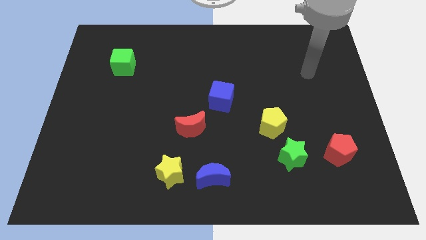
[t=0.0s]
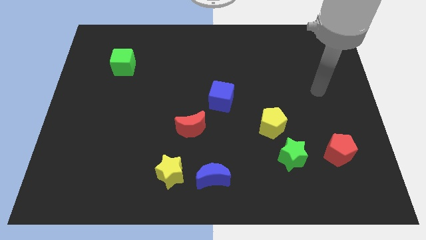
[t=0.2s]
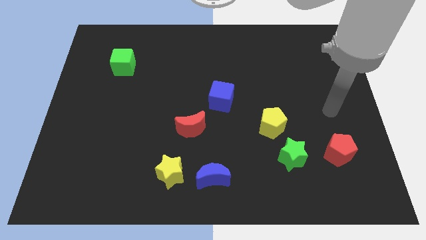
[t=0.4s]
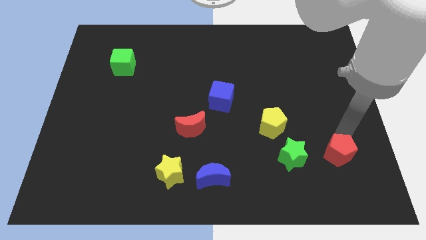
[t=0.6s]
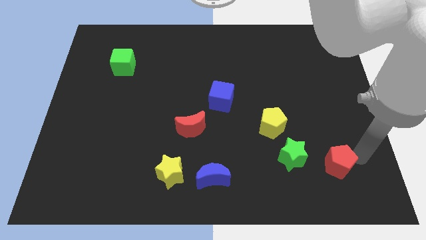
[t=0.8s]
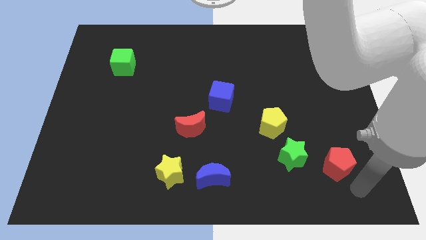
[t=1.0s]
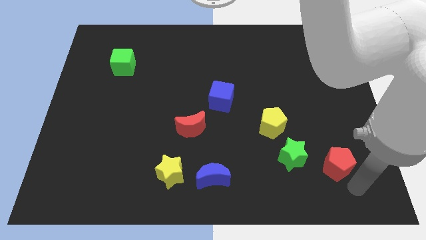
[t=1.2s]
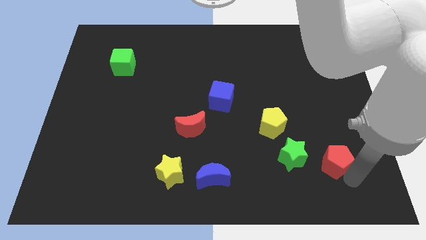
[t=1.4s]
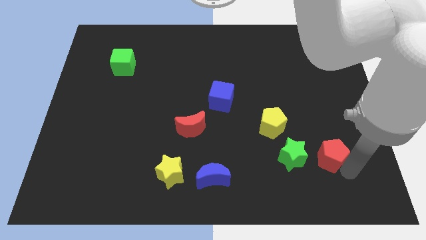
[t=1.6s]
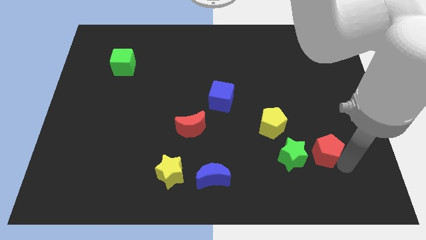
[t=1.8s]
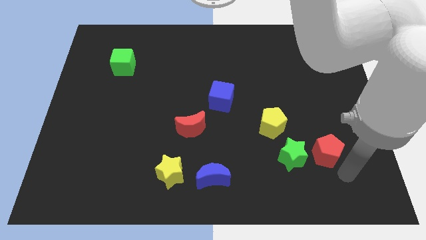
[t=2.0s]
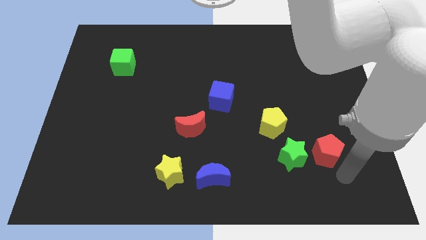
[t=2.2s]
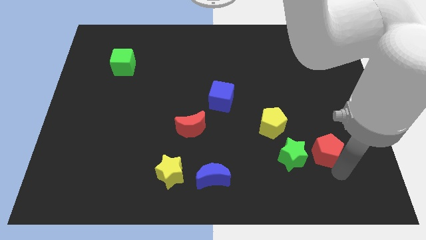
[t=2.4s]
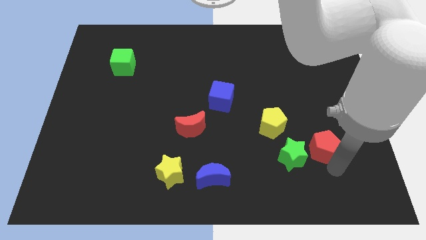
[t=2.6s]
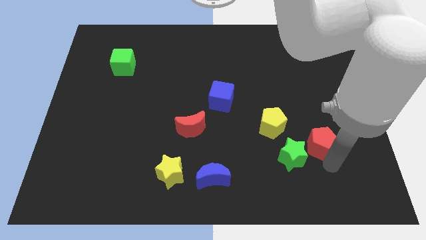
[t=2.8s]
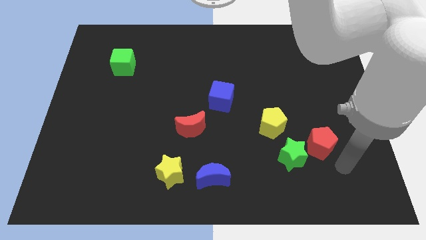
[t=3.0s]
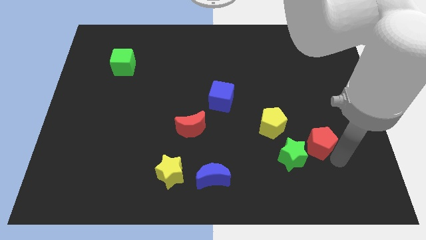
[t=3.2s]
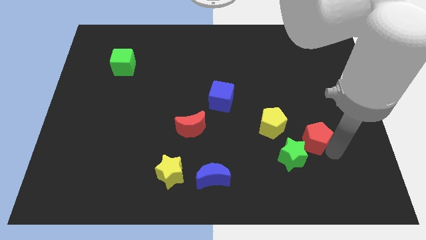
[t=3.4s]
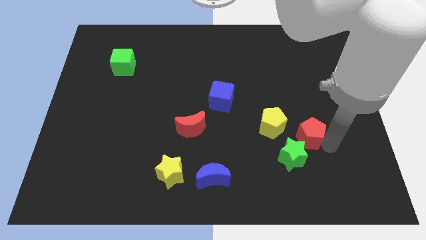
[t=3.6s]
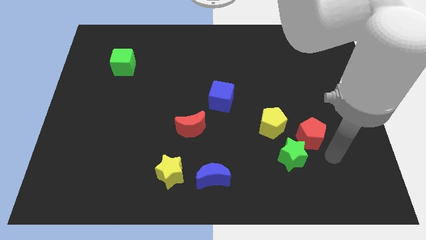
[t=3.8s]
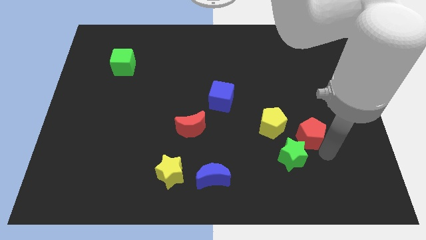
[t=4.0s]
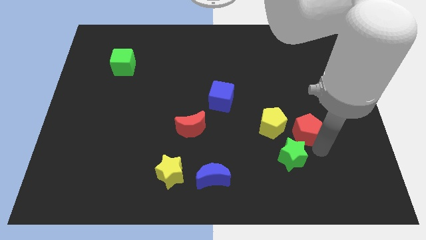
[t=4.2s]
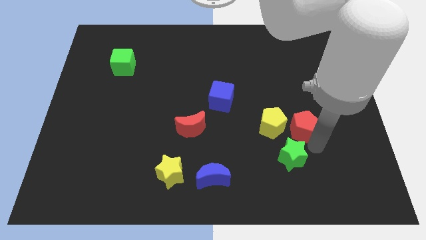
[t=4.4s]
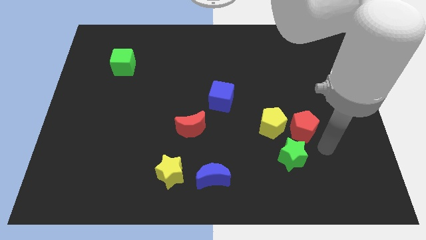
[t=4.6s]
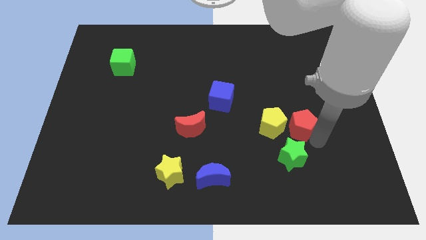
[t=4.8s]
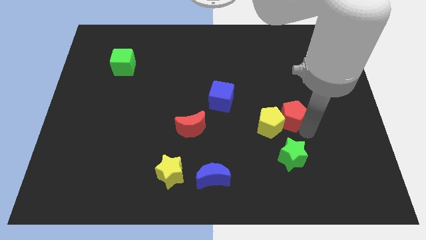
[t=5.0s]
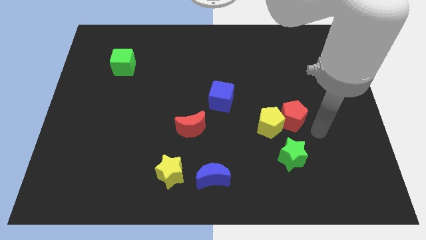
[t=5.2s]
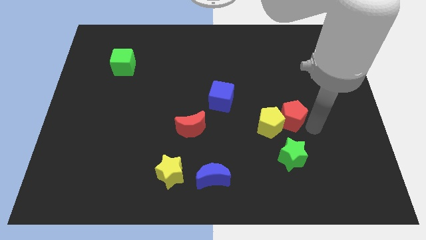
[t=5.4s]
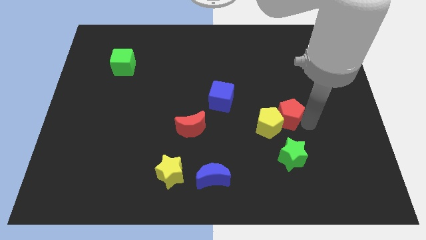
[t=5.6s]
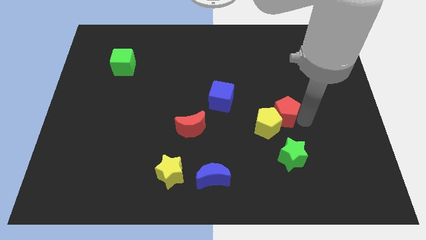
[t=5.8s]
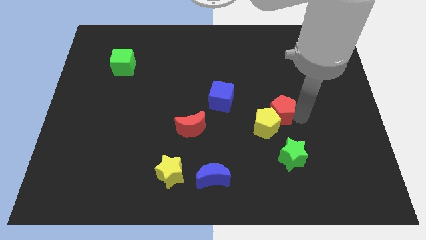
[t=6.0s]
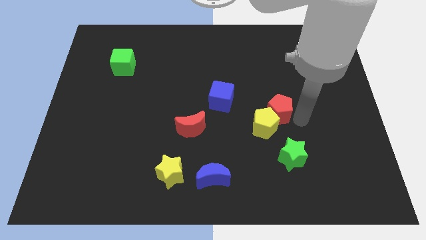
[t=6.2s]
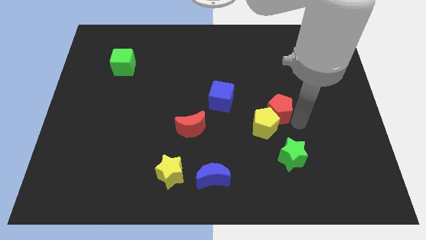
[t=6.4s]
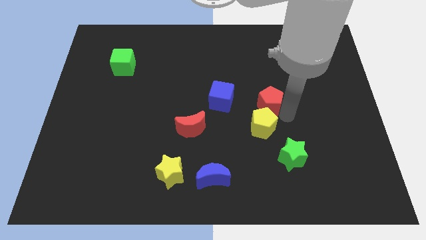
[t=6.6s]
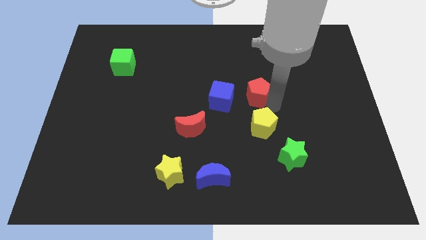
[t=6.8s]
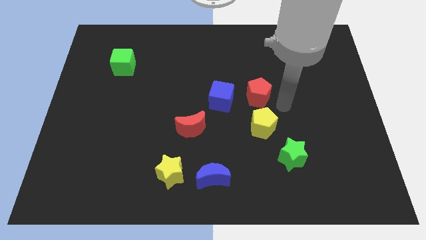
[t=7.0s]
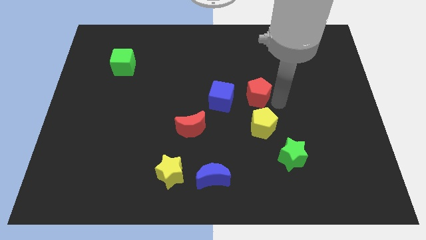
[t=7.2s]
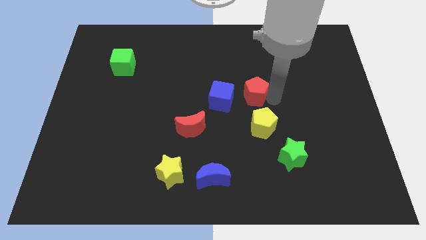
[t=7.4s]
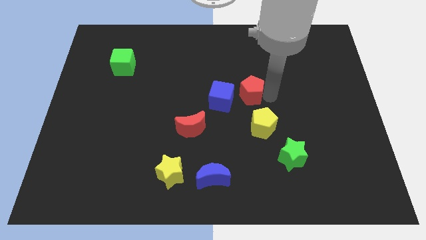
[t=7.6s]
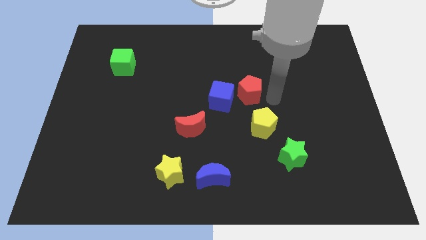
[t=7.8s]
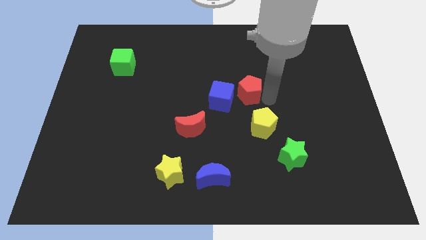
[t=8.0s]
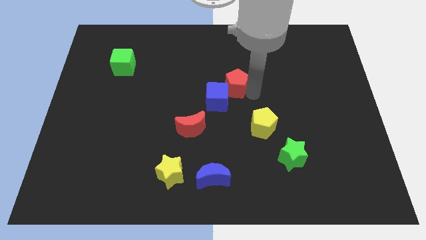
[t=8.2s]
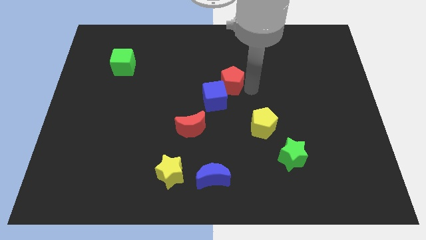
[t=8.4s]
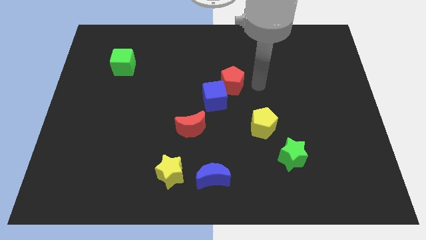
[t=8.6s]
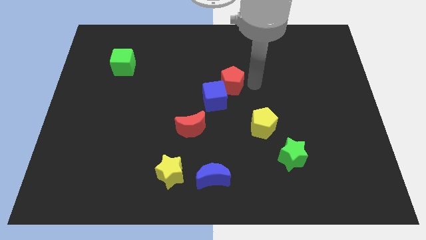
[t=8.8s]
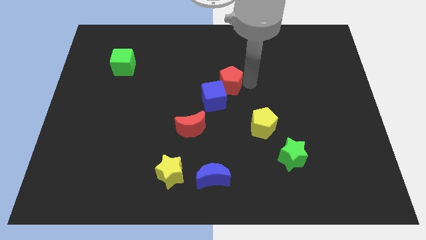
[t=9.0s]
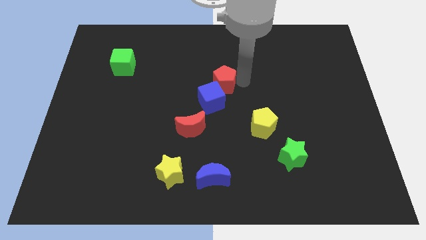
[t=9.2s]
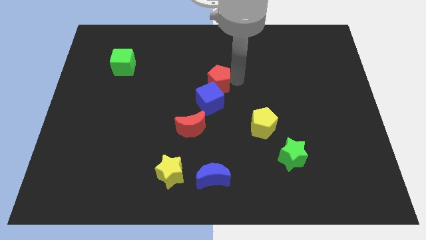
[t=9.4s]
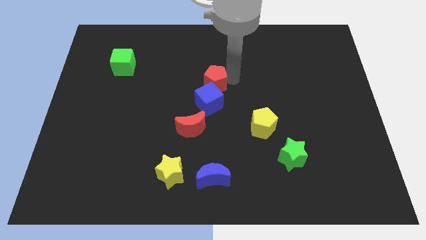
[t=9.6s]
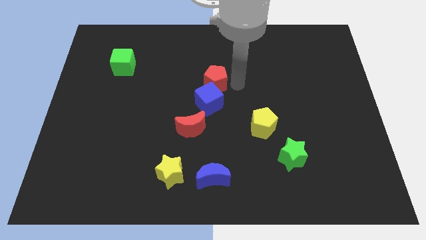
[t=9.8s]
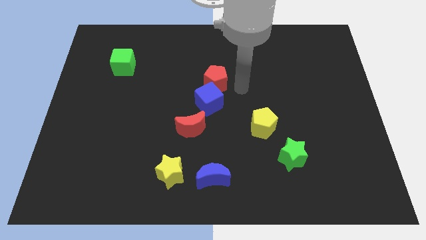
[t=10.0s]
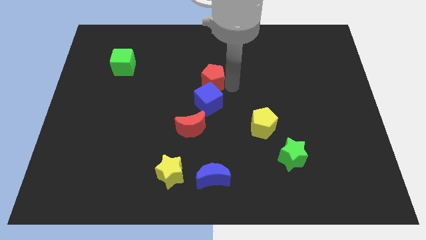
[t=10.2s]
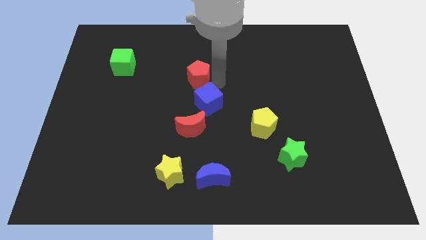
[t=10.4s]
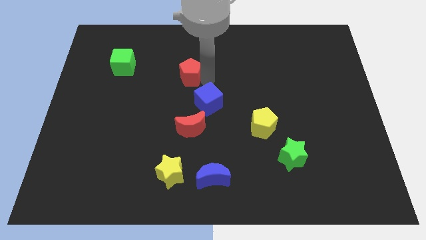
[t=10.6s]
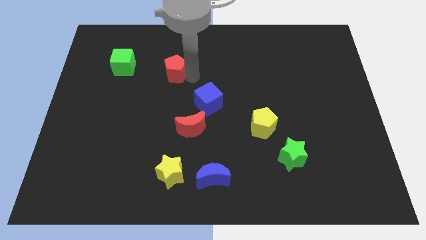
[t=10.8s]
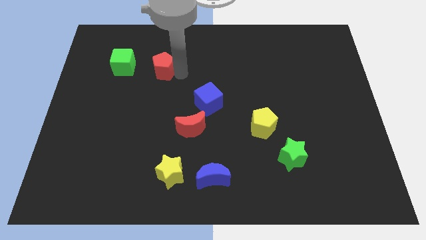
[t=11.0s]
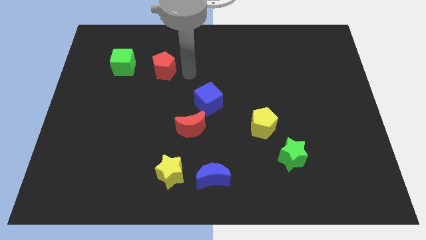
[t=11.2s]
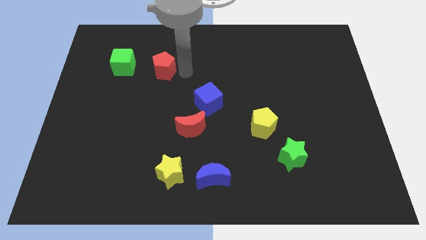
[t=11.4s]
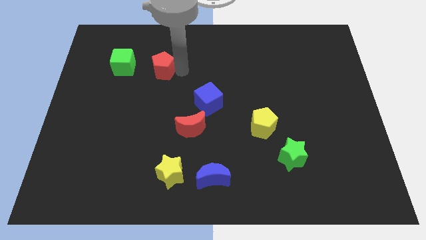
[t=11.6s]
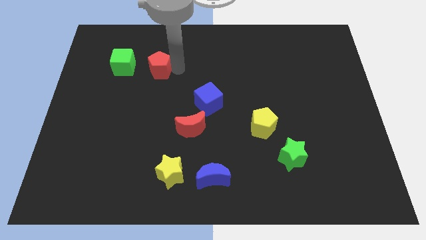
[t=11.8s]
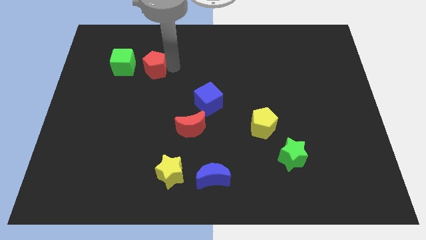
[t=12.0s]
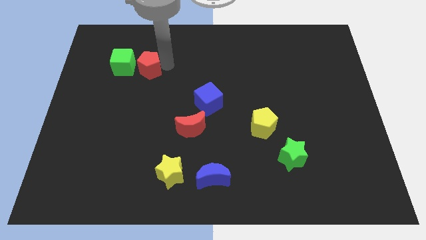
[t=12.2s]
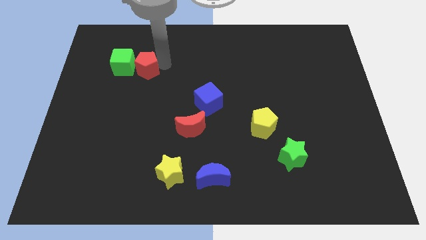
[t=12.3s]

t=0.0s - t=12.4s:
move the red pentagon next to the green cube

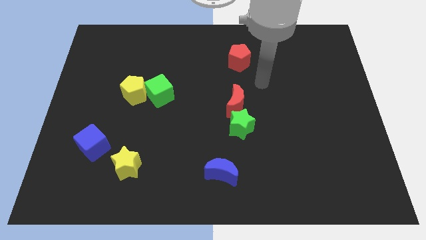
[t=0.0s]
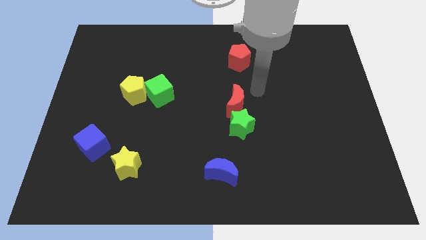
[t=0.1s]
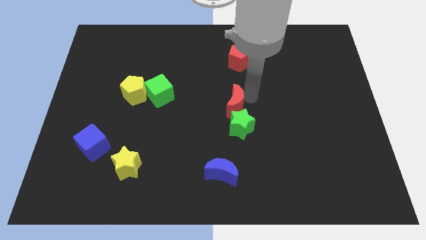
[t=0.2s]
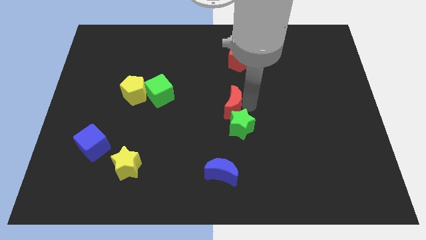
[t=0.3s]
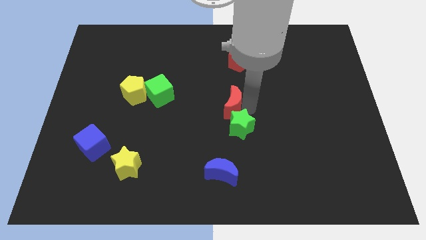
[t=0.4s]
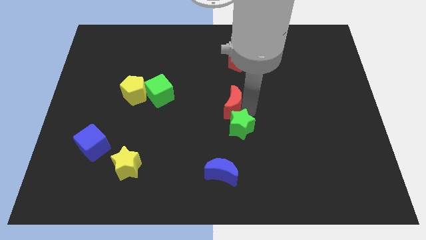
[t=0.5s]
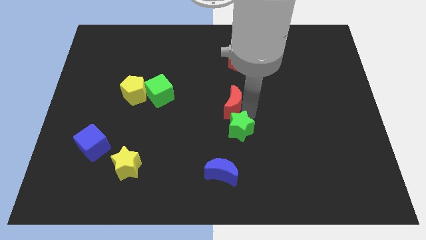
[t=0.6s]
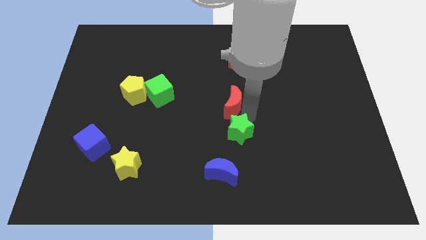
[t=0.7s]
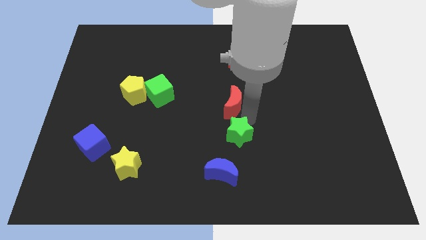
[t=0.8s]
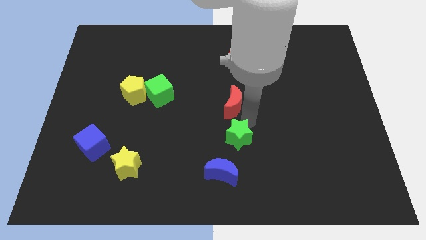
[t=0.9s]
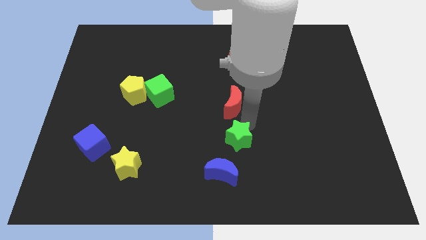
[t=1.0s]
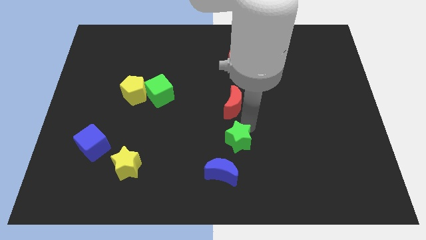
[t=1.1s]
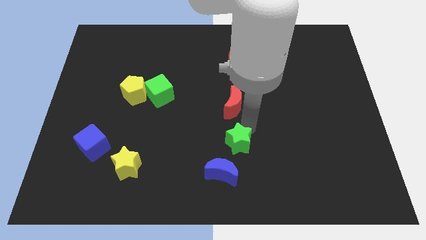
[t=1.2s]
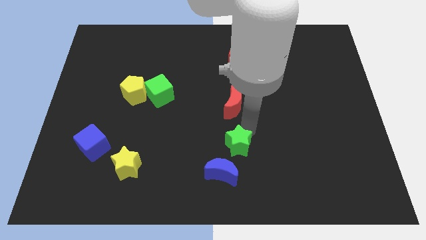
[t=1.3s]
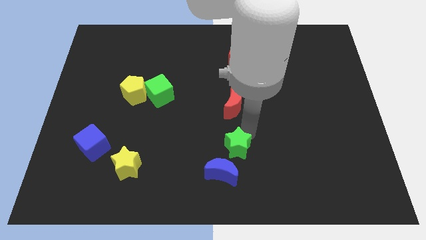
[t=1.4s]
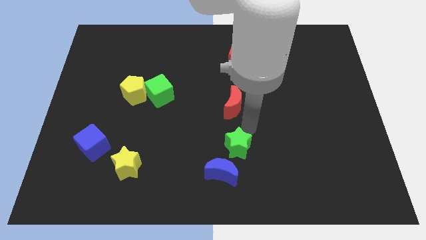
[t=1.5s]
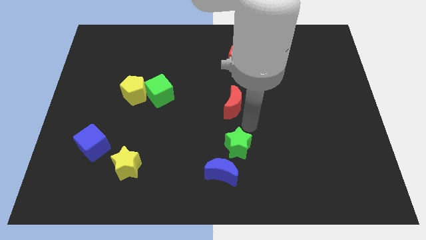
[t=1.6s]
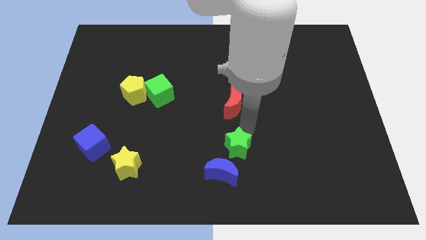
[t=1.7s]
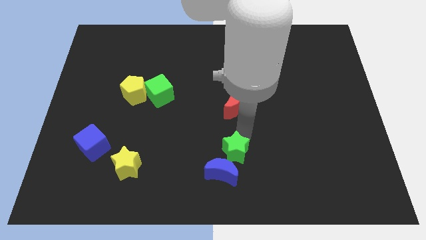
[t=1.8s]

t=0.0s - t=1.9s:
slide the green star close to the blue moon
